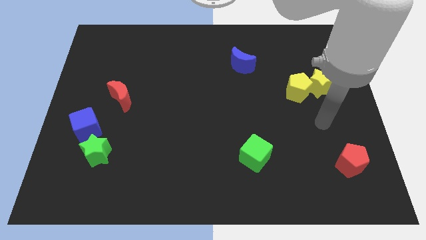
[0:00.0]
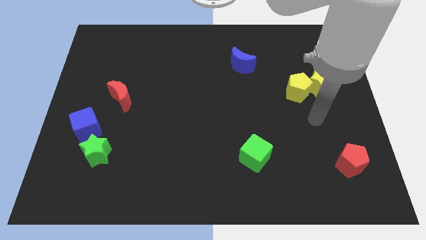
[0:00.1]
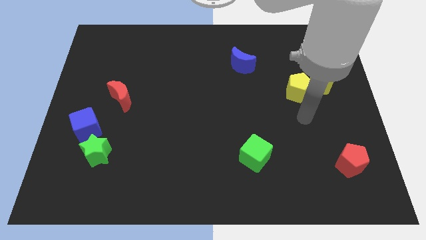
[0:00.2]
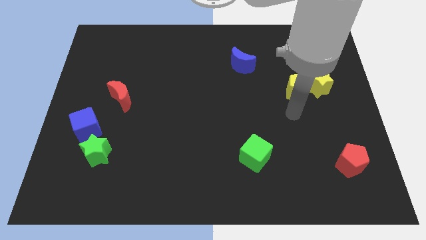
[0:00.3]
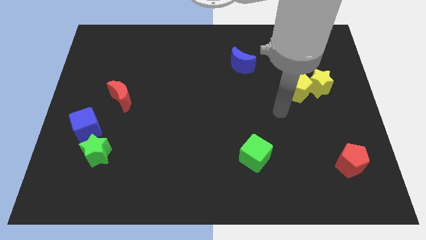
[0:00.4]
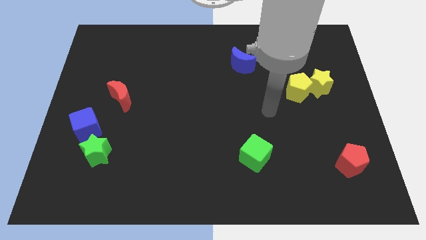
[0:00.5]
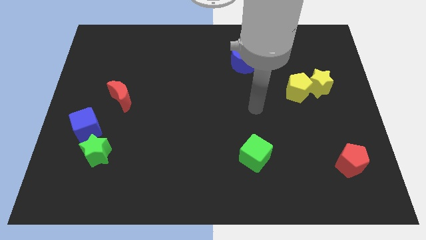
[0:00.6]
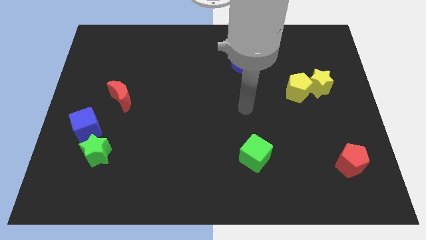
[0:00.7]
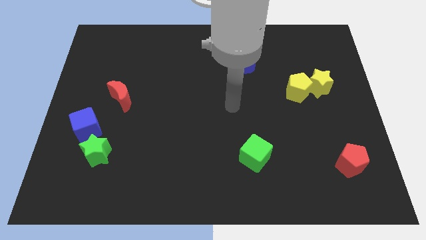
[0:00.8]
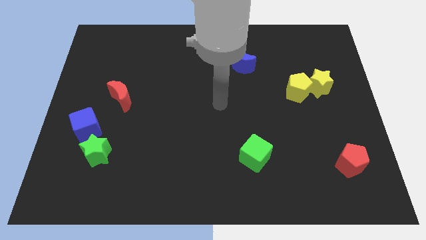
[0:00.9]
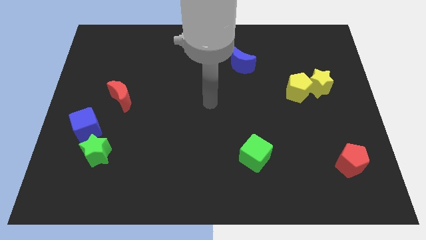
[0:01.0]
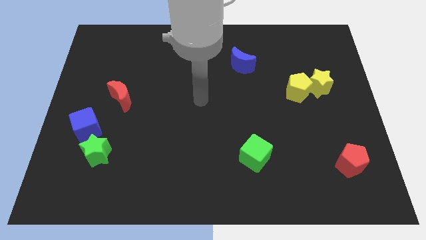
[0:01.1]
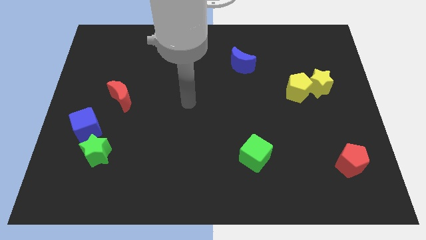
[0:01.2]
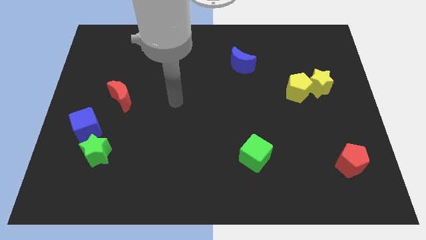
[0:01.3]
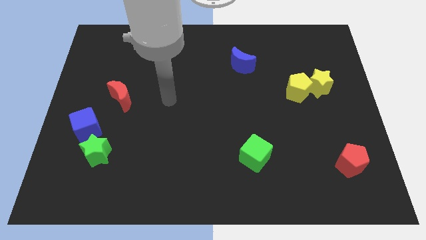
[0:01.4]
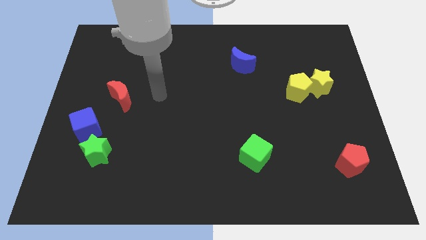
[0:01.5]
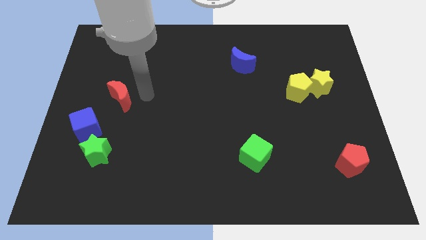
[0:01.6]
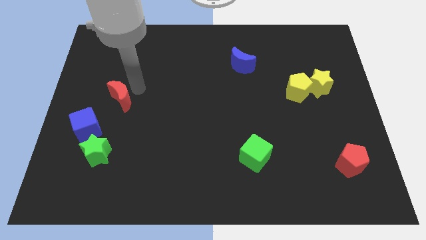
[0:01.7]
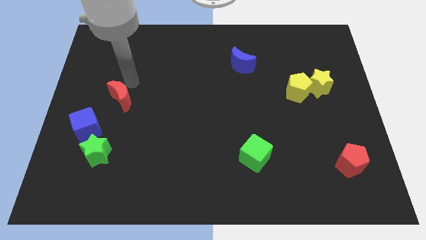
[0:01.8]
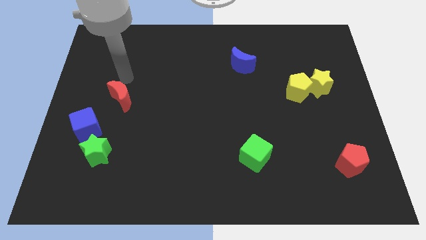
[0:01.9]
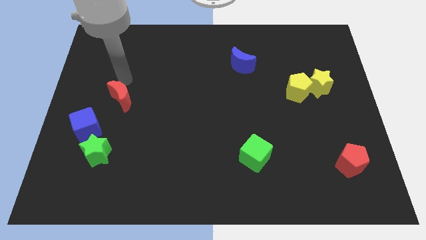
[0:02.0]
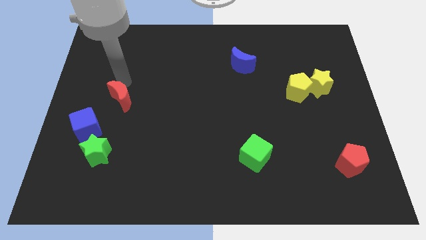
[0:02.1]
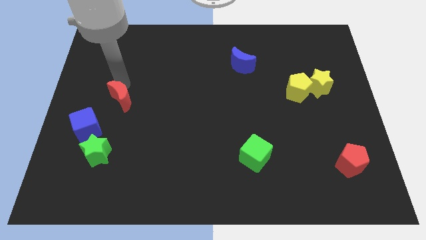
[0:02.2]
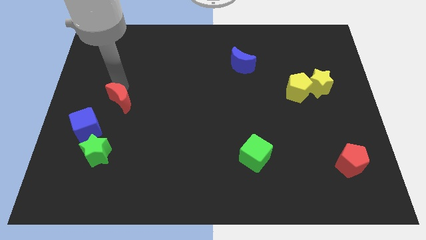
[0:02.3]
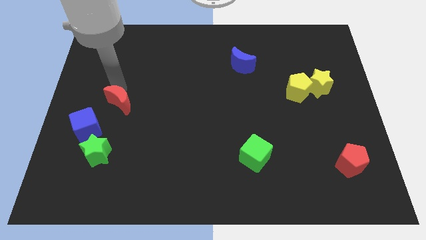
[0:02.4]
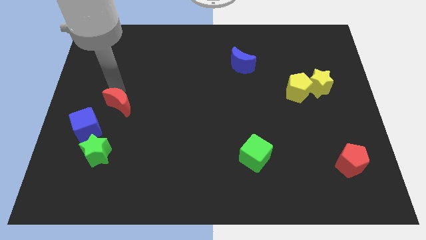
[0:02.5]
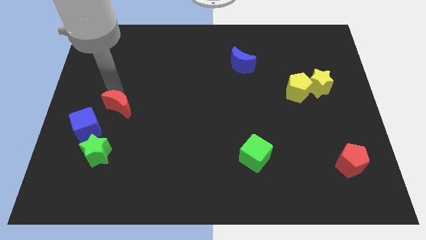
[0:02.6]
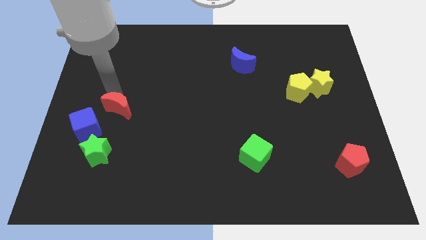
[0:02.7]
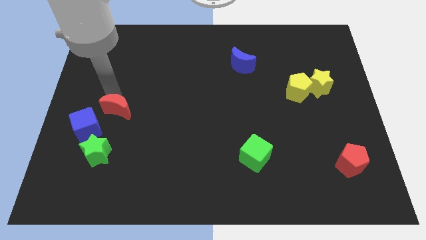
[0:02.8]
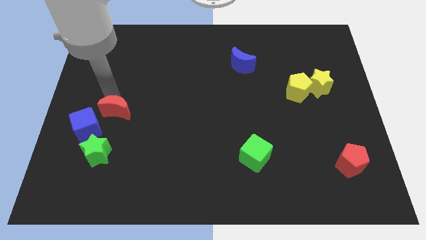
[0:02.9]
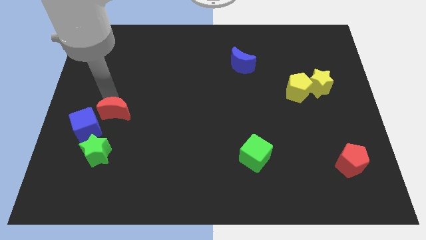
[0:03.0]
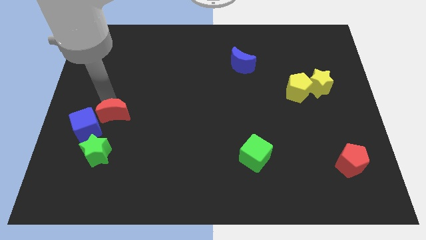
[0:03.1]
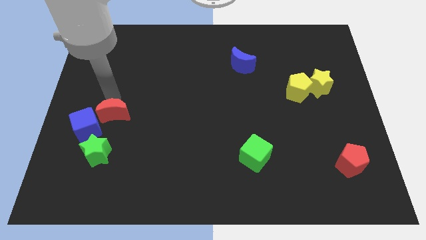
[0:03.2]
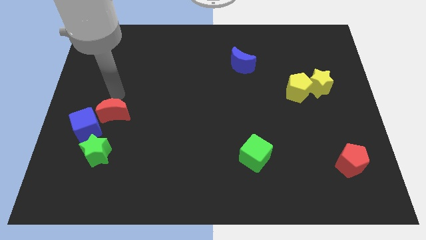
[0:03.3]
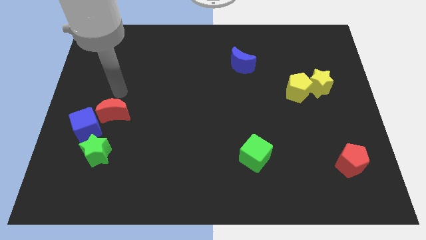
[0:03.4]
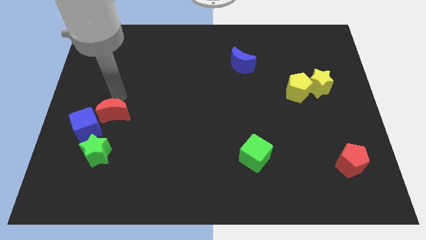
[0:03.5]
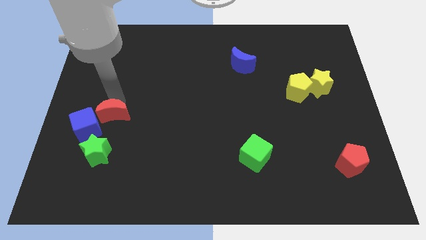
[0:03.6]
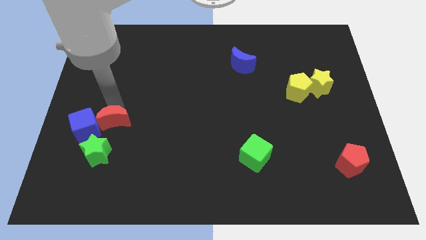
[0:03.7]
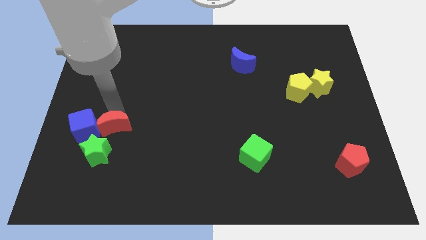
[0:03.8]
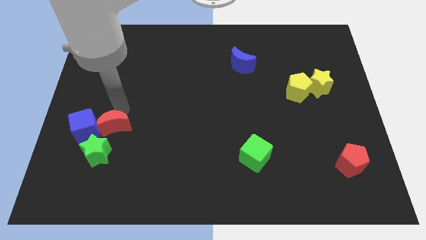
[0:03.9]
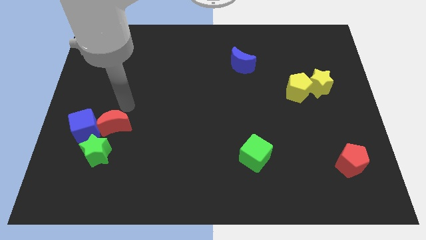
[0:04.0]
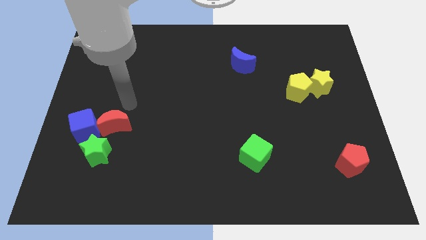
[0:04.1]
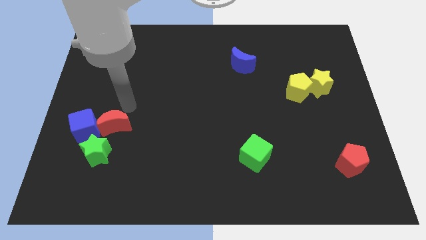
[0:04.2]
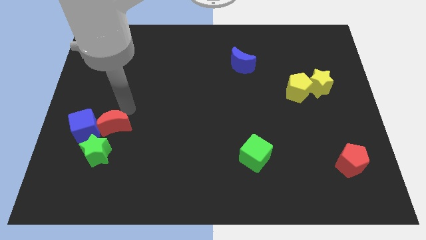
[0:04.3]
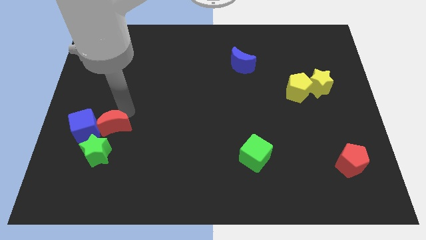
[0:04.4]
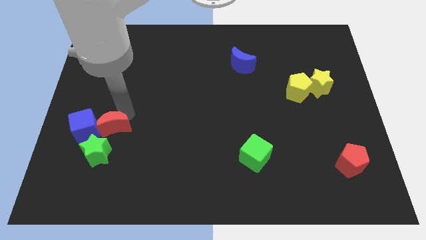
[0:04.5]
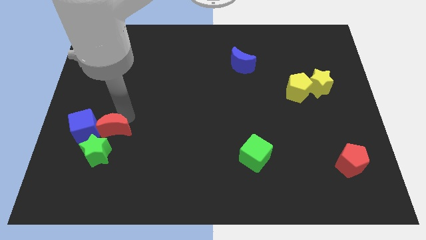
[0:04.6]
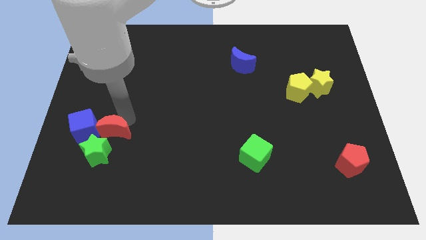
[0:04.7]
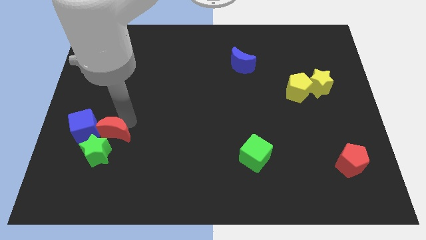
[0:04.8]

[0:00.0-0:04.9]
put the red moon to the green star

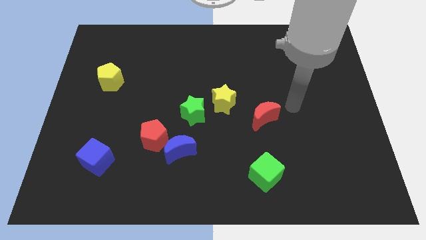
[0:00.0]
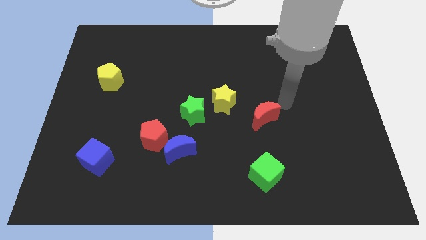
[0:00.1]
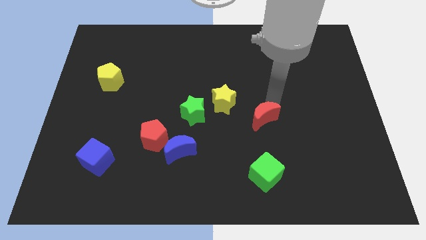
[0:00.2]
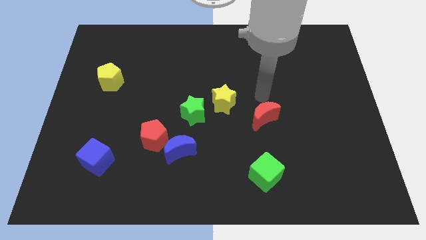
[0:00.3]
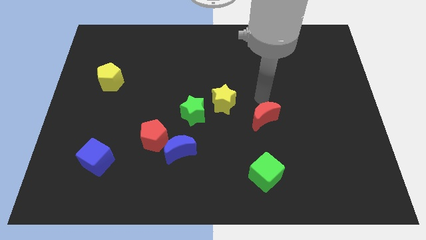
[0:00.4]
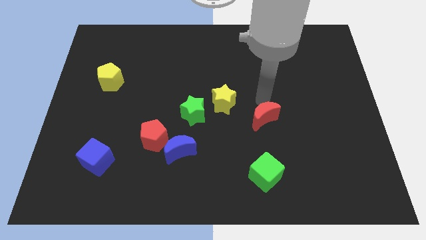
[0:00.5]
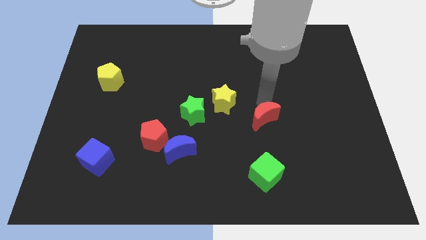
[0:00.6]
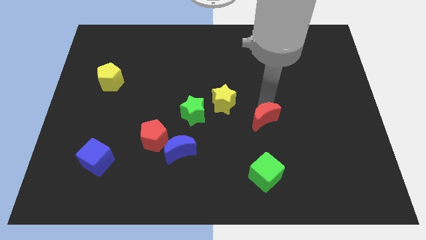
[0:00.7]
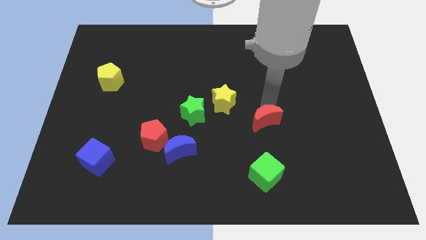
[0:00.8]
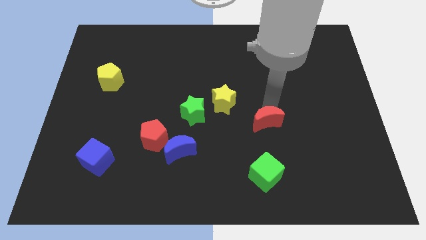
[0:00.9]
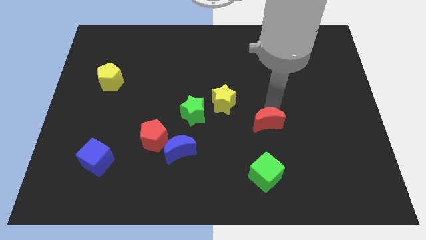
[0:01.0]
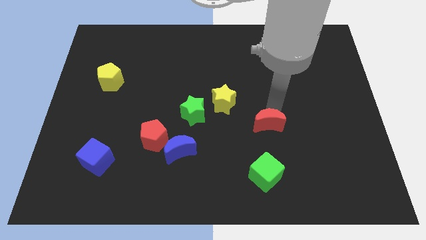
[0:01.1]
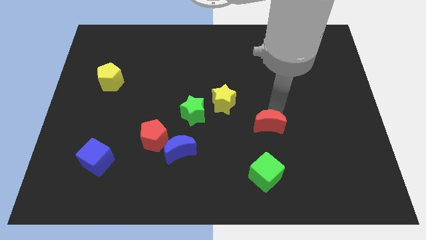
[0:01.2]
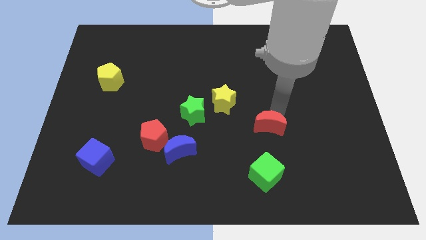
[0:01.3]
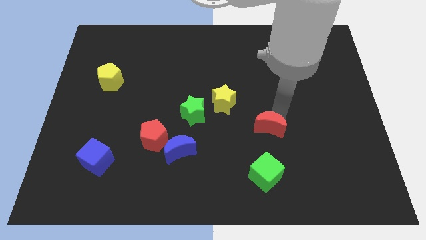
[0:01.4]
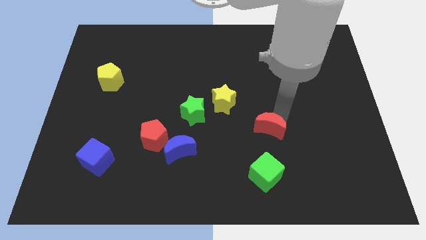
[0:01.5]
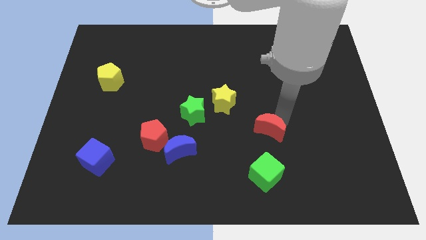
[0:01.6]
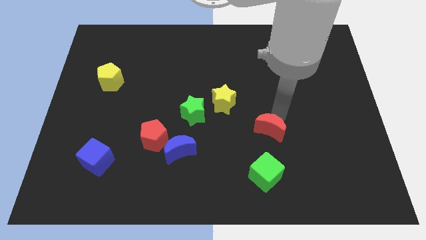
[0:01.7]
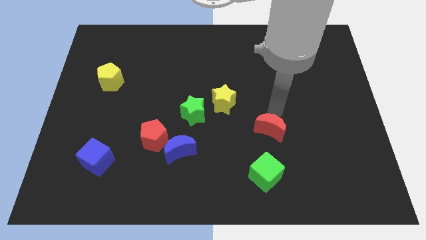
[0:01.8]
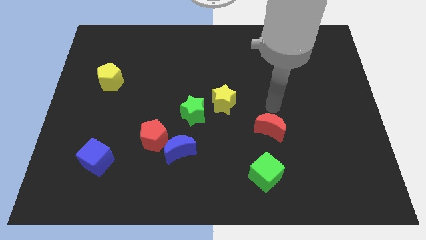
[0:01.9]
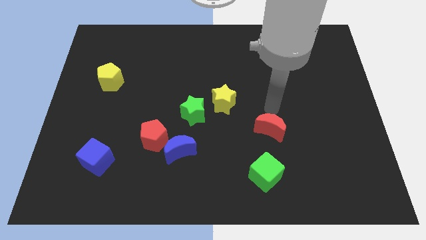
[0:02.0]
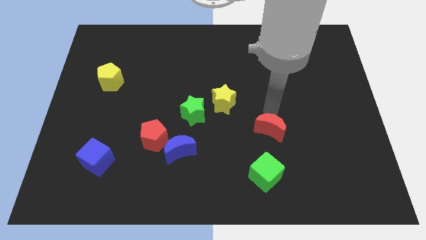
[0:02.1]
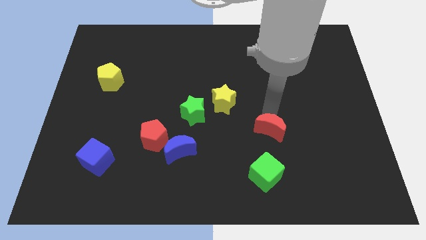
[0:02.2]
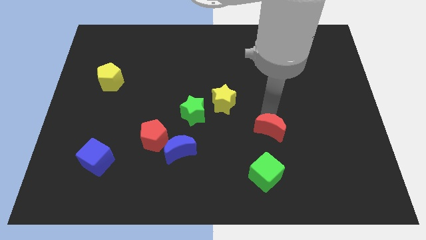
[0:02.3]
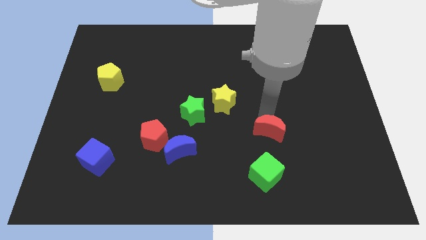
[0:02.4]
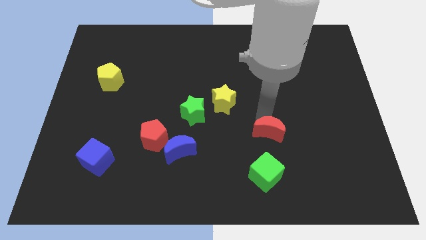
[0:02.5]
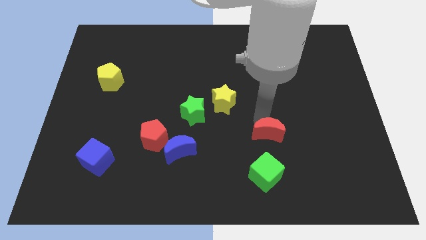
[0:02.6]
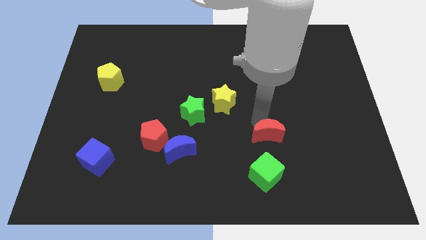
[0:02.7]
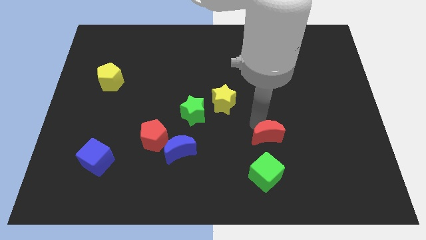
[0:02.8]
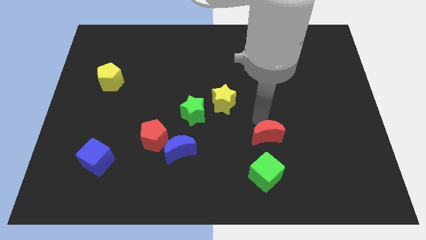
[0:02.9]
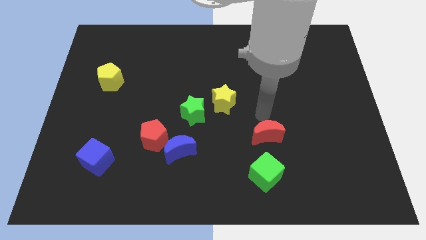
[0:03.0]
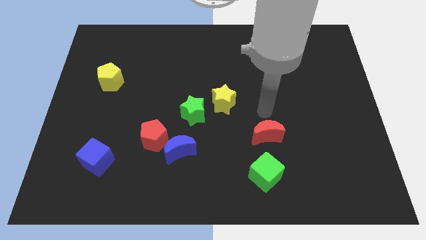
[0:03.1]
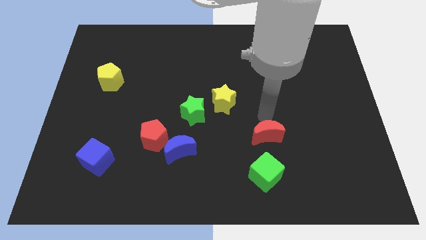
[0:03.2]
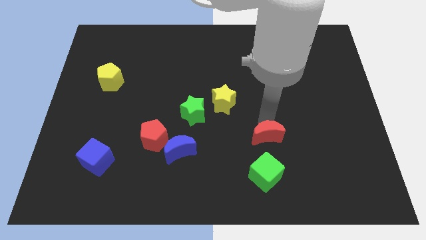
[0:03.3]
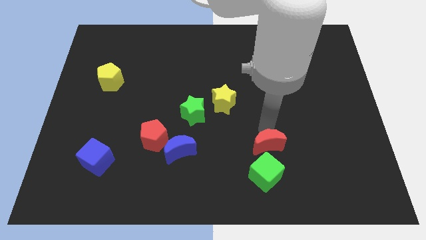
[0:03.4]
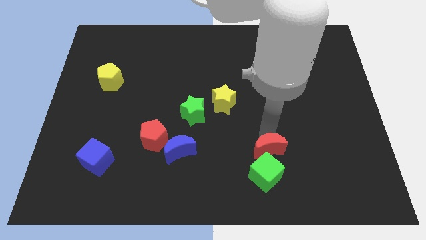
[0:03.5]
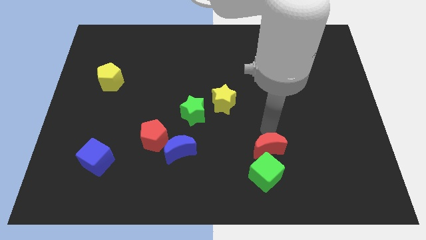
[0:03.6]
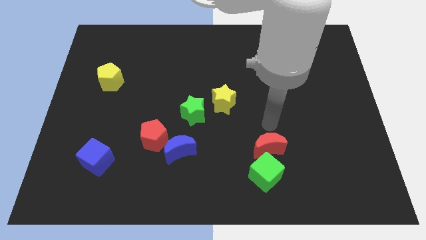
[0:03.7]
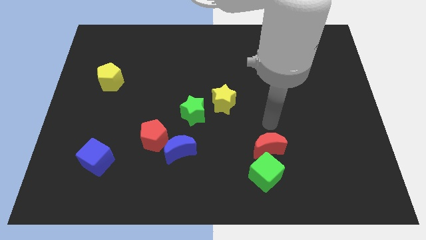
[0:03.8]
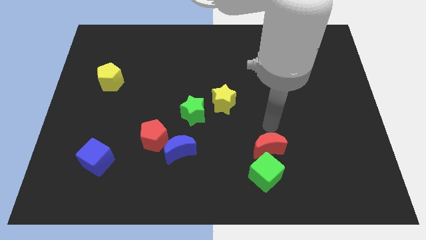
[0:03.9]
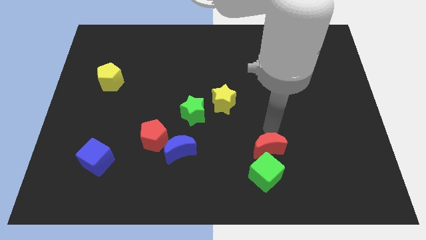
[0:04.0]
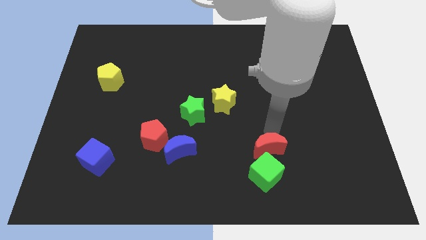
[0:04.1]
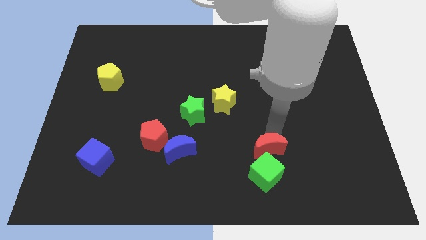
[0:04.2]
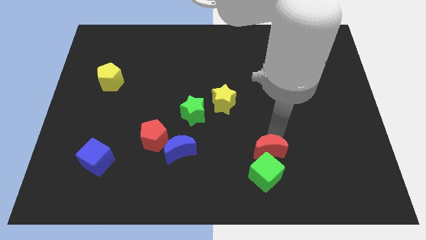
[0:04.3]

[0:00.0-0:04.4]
move the red moon close to the green cube
